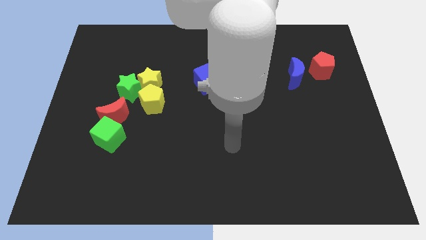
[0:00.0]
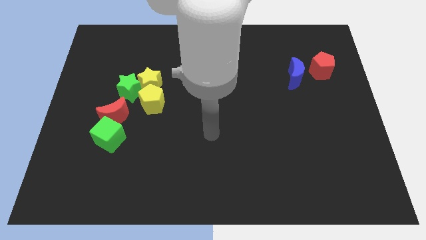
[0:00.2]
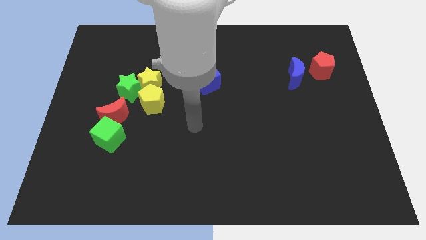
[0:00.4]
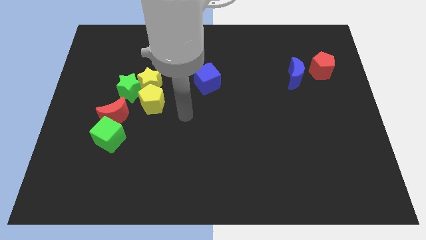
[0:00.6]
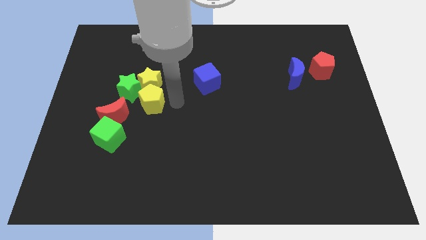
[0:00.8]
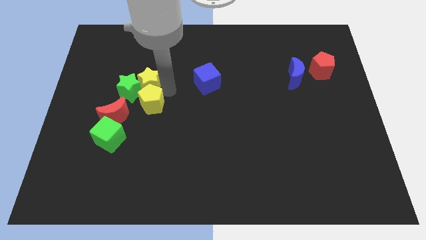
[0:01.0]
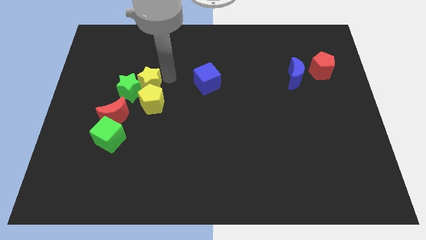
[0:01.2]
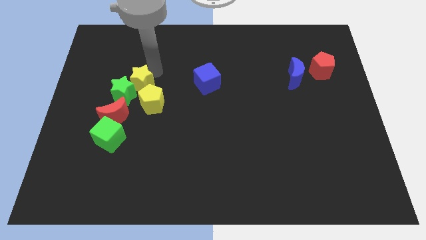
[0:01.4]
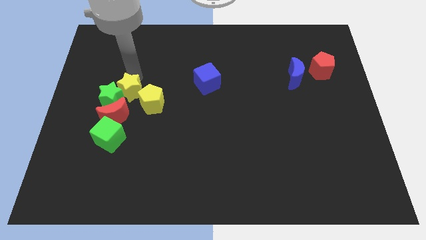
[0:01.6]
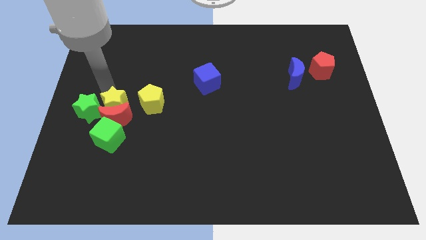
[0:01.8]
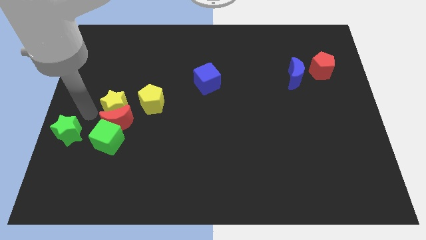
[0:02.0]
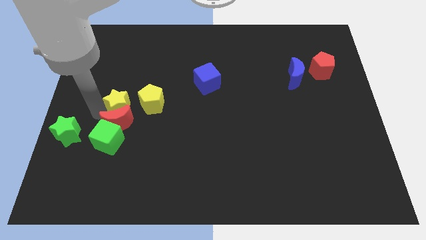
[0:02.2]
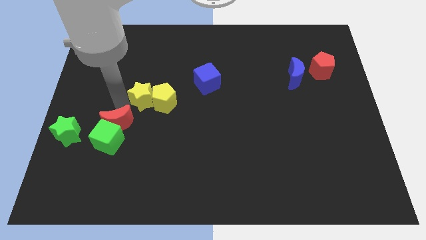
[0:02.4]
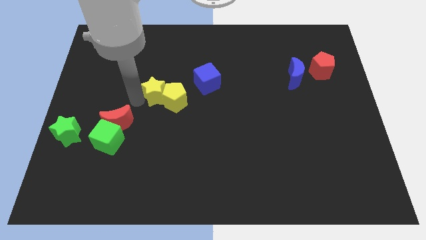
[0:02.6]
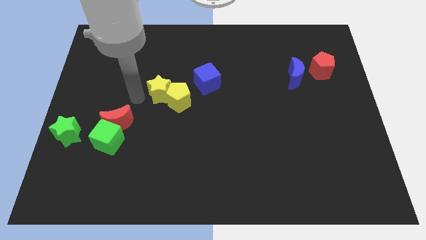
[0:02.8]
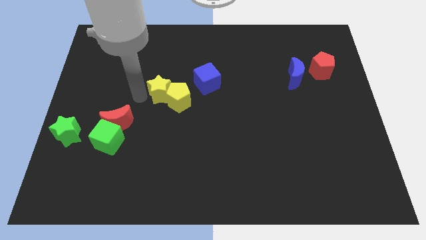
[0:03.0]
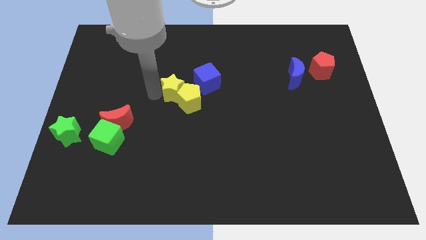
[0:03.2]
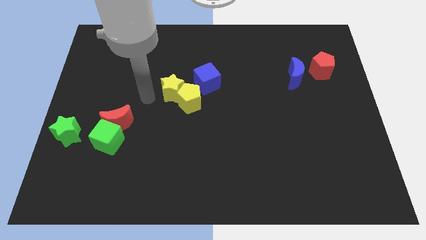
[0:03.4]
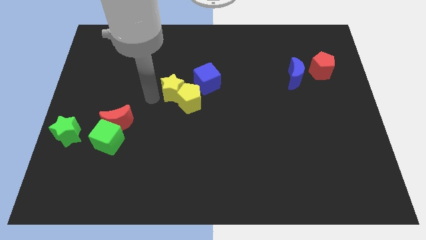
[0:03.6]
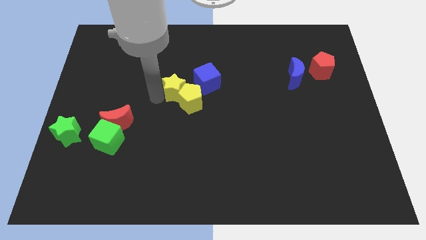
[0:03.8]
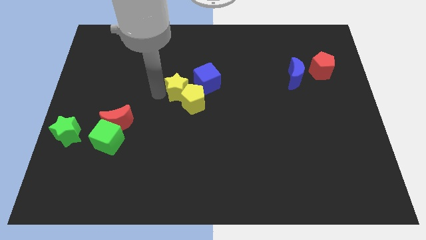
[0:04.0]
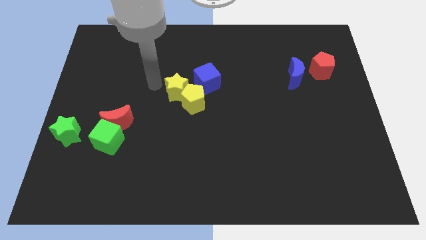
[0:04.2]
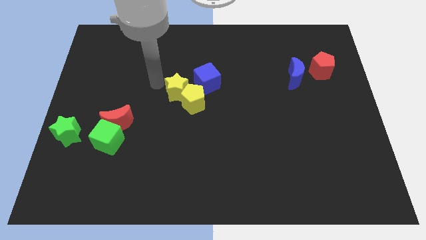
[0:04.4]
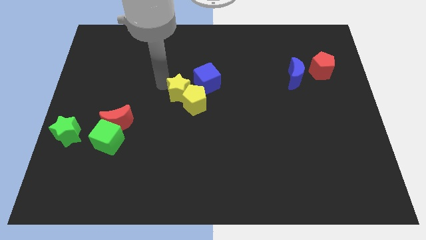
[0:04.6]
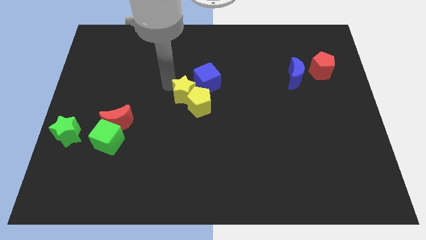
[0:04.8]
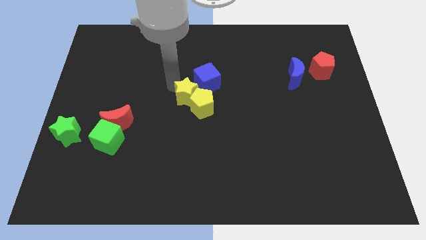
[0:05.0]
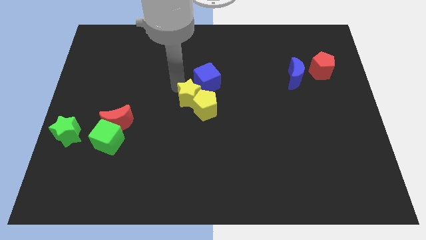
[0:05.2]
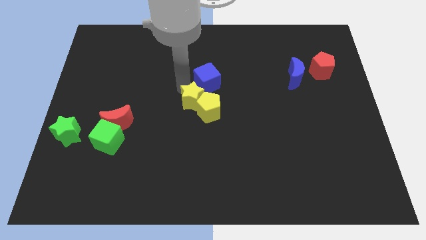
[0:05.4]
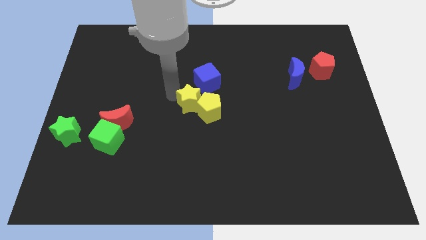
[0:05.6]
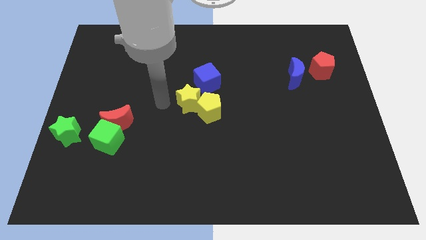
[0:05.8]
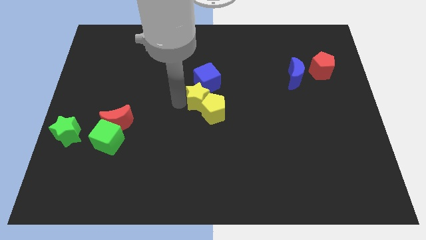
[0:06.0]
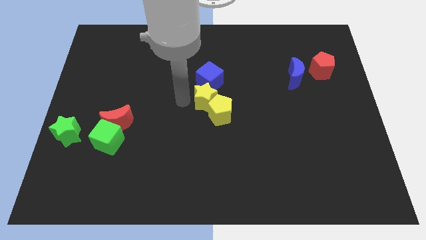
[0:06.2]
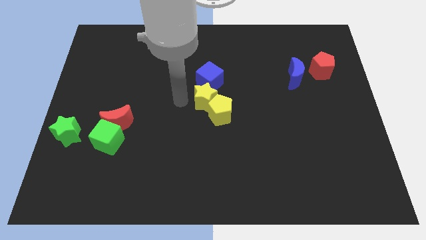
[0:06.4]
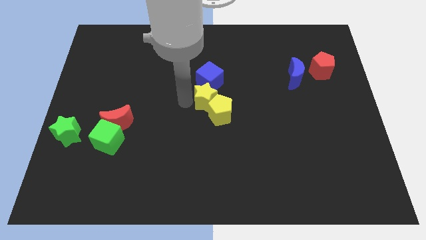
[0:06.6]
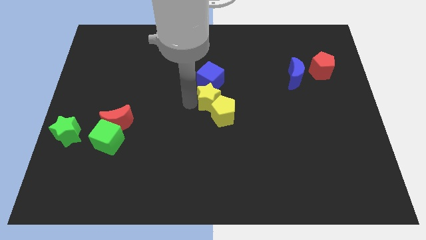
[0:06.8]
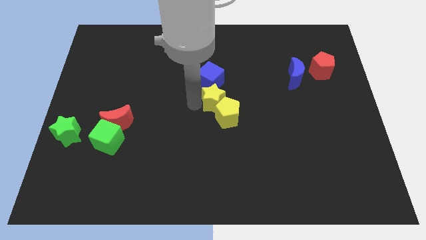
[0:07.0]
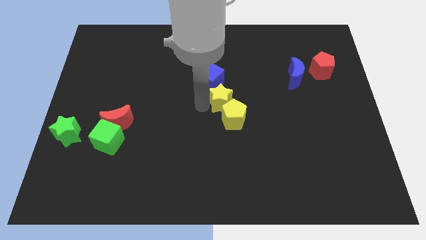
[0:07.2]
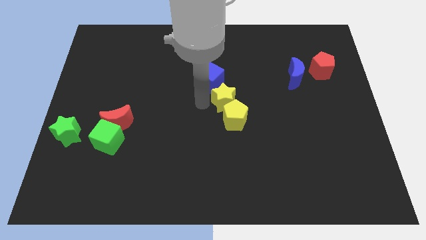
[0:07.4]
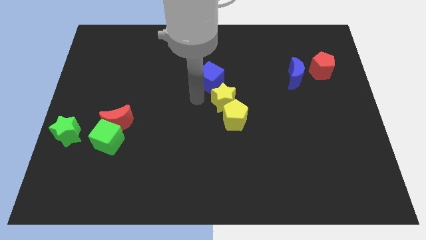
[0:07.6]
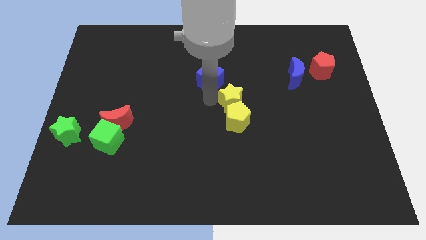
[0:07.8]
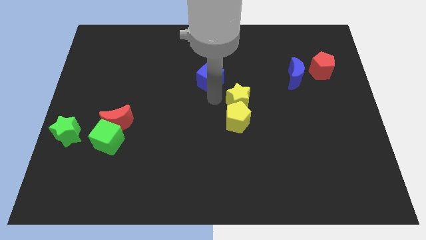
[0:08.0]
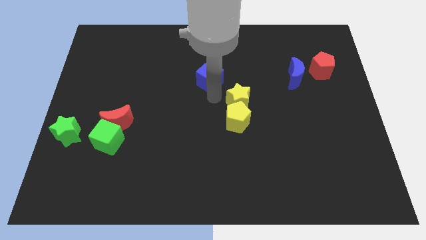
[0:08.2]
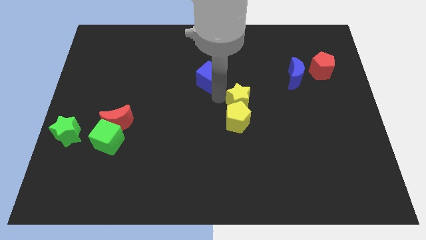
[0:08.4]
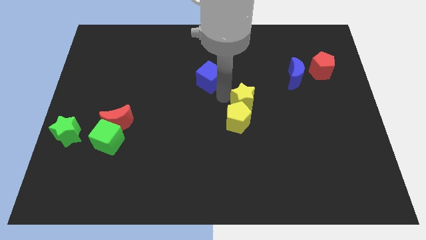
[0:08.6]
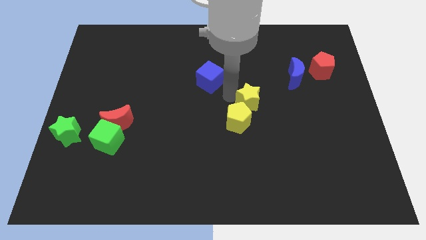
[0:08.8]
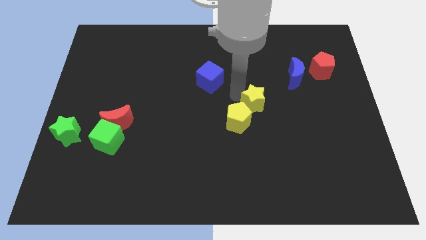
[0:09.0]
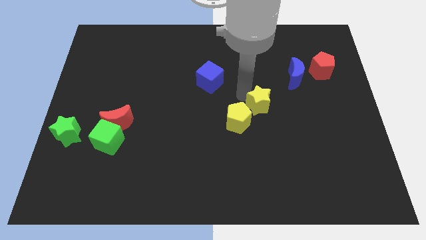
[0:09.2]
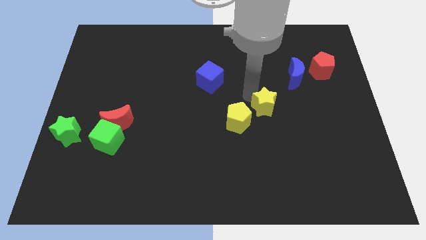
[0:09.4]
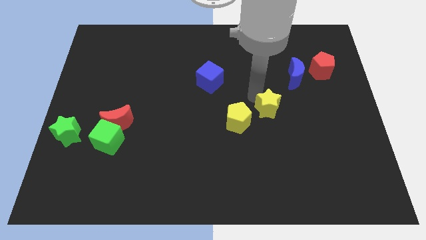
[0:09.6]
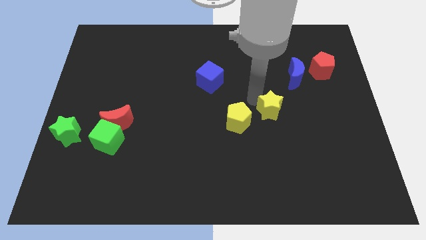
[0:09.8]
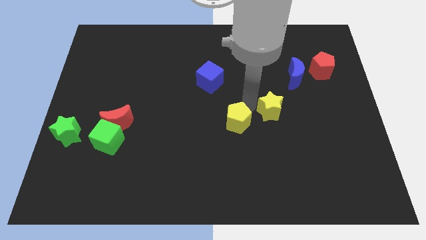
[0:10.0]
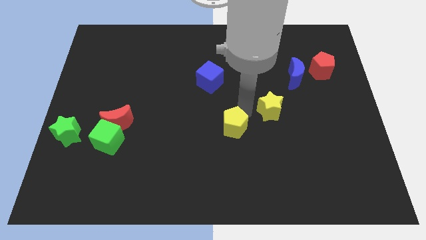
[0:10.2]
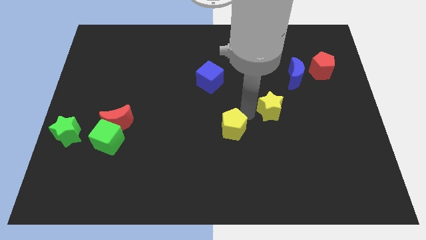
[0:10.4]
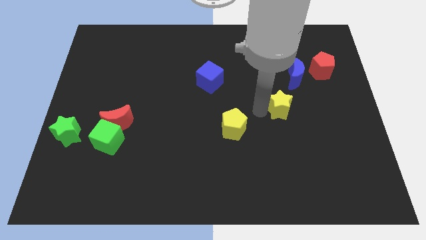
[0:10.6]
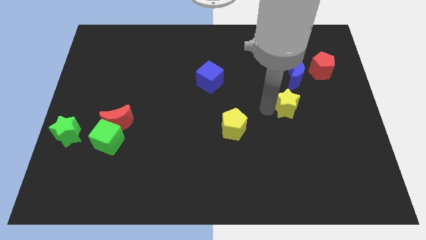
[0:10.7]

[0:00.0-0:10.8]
push the yellow star to the bottom of the blue moon

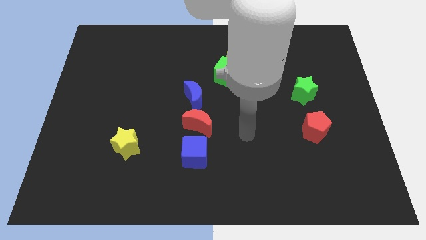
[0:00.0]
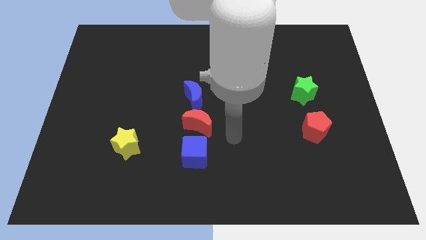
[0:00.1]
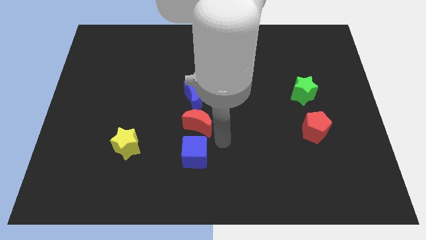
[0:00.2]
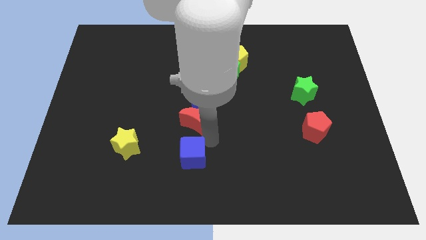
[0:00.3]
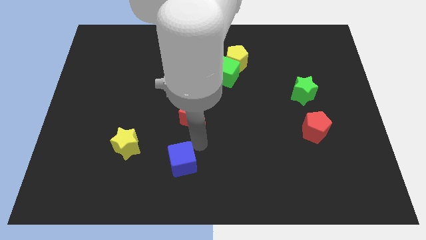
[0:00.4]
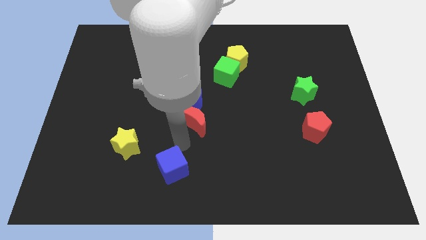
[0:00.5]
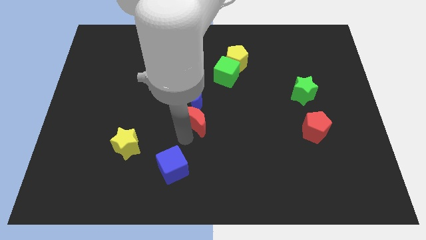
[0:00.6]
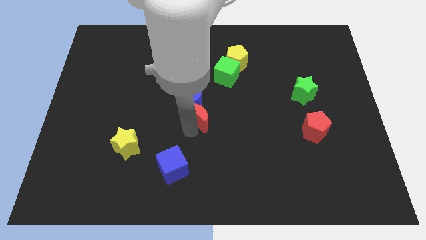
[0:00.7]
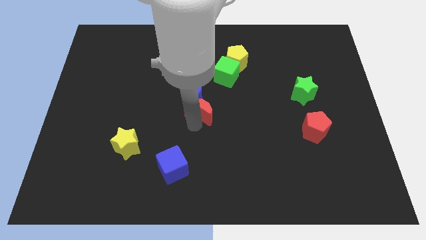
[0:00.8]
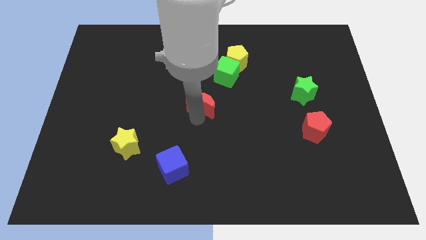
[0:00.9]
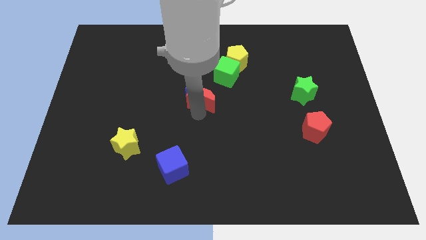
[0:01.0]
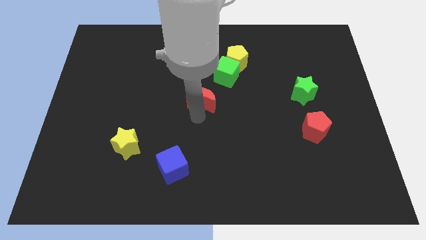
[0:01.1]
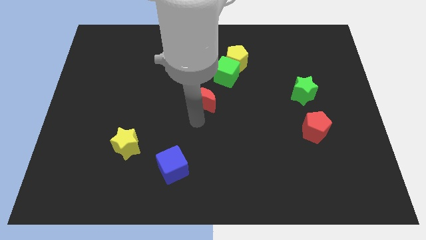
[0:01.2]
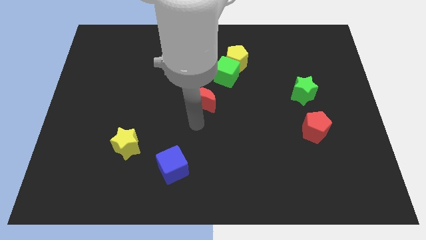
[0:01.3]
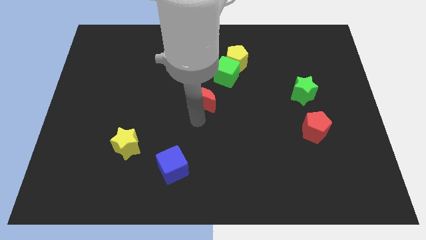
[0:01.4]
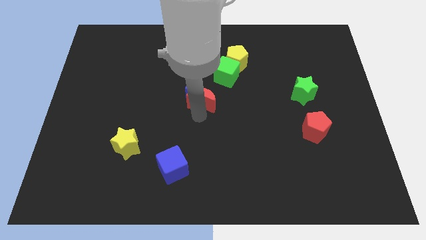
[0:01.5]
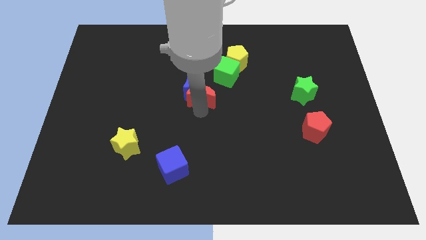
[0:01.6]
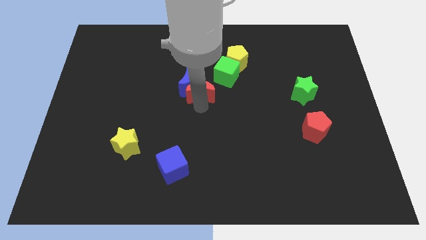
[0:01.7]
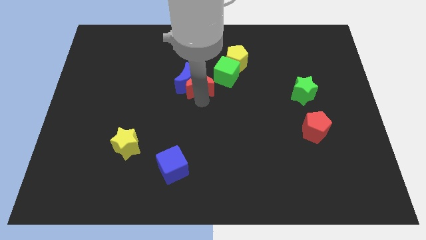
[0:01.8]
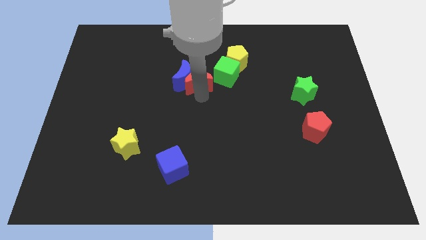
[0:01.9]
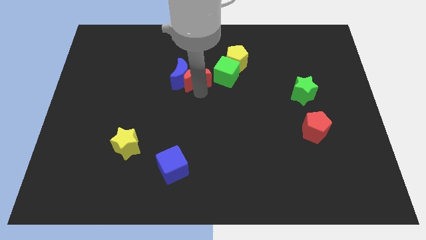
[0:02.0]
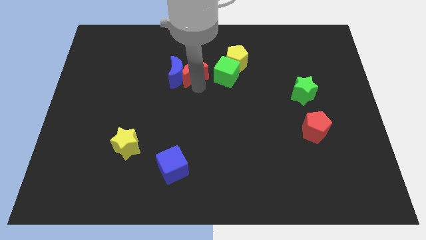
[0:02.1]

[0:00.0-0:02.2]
push the red moon to the left of the yellow pentagon
